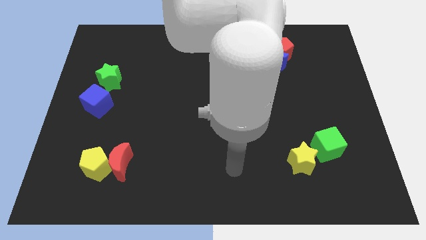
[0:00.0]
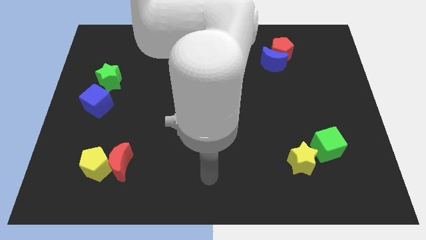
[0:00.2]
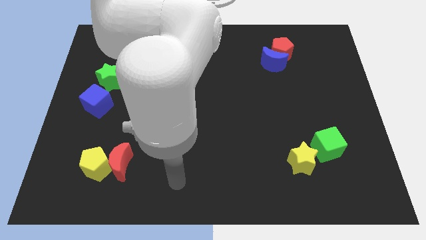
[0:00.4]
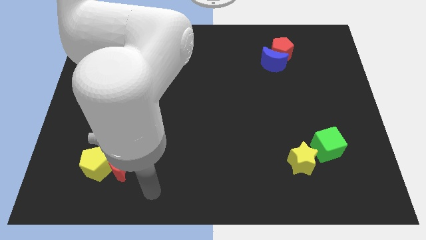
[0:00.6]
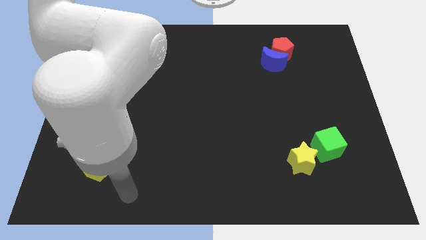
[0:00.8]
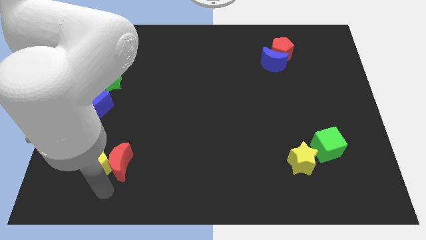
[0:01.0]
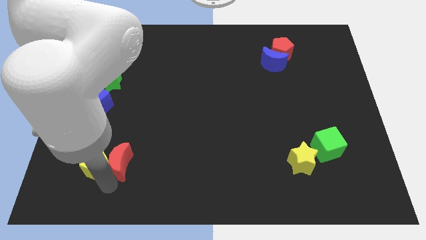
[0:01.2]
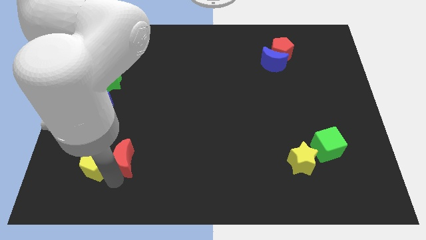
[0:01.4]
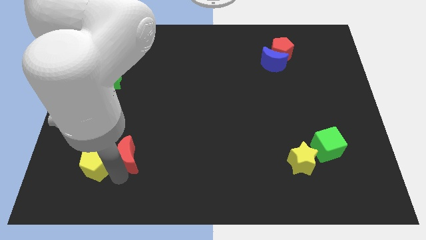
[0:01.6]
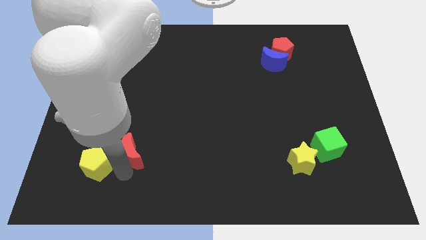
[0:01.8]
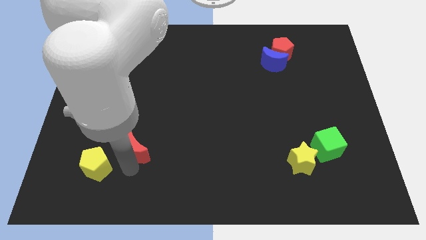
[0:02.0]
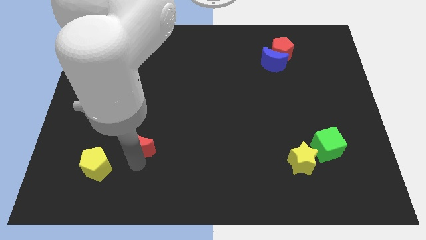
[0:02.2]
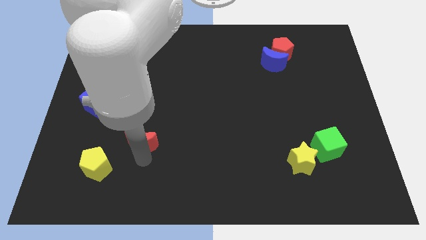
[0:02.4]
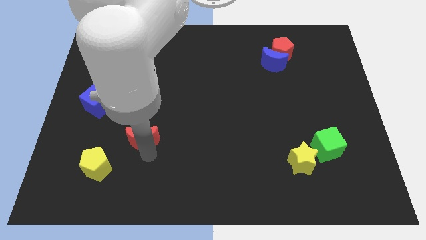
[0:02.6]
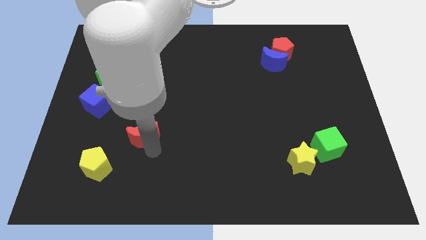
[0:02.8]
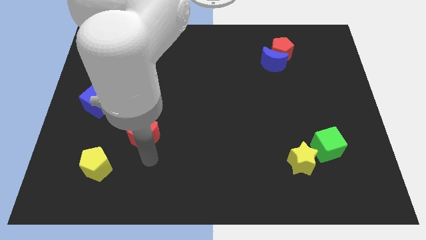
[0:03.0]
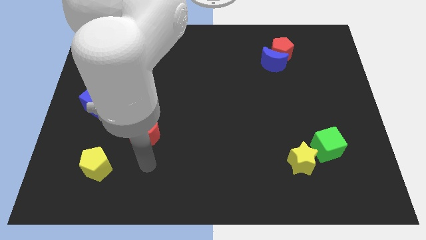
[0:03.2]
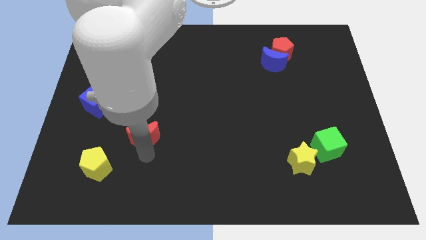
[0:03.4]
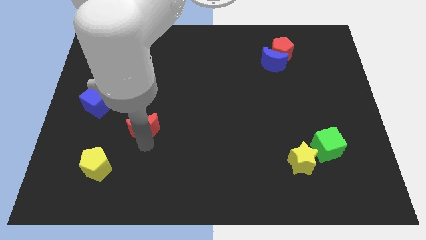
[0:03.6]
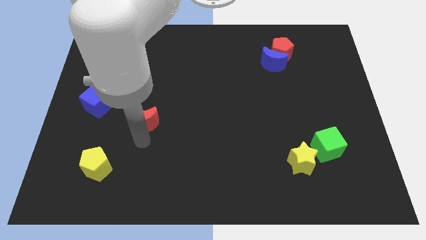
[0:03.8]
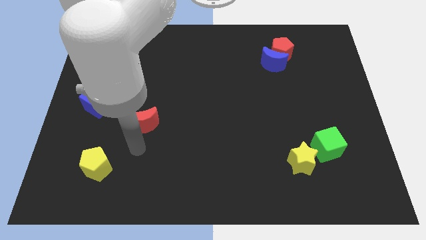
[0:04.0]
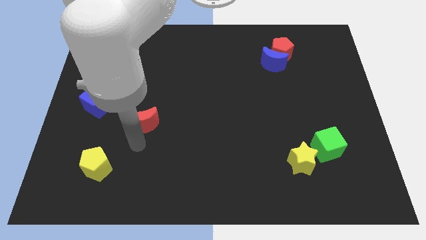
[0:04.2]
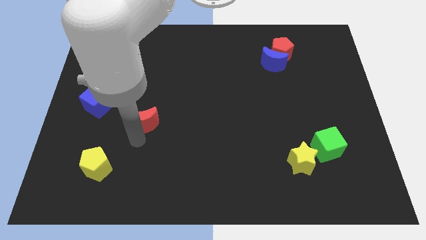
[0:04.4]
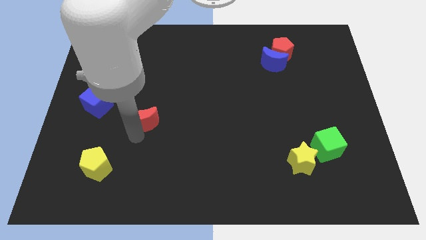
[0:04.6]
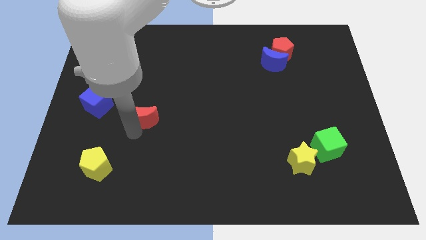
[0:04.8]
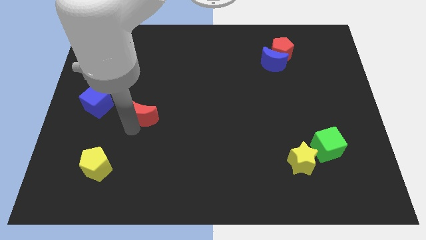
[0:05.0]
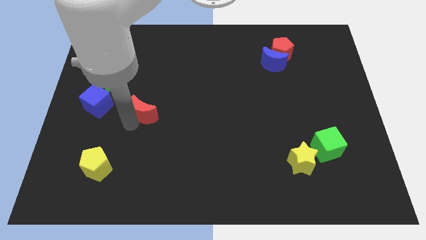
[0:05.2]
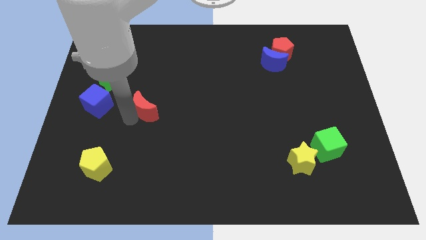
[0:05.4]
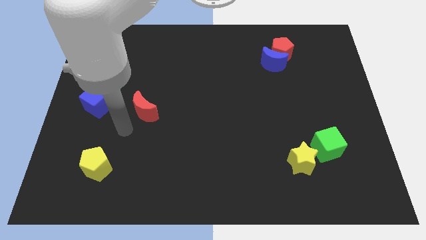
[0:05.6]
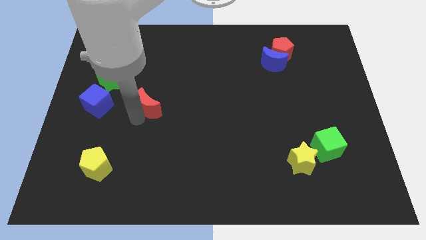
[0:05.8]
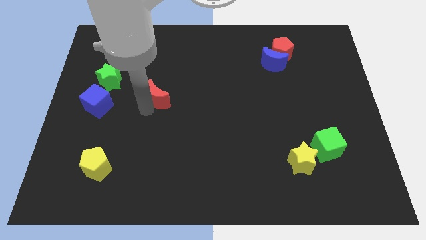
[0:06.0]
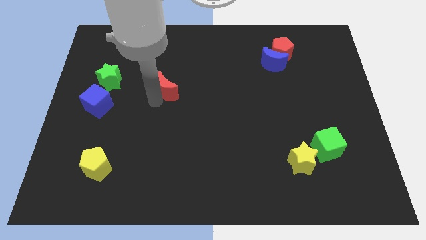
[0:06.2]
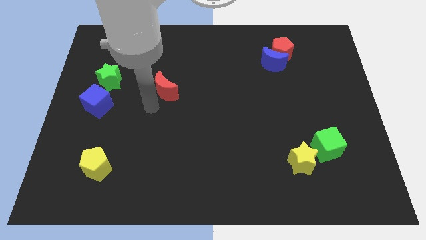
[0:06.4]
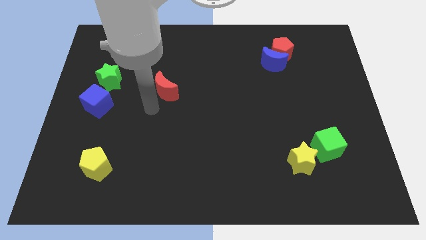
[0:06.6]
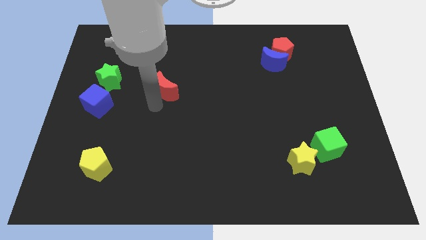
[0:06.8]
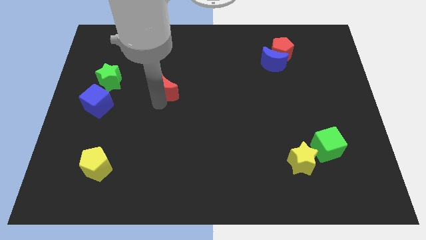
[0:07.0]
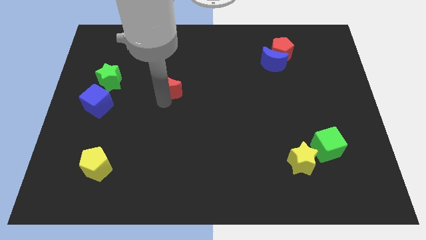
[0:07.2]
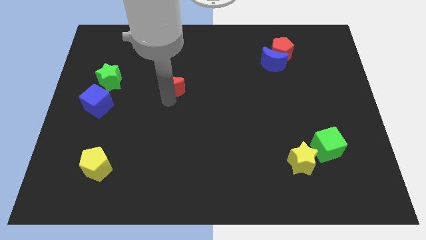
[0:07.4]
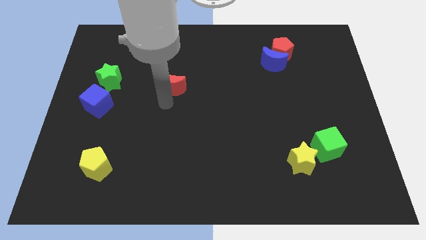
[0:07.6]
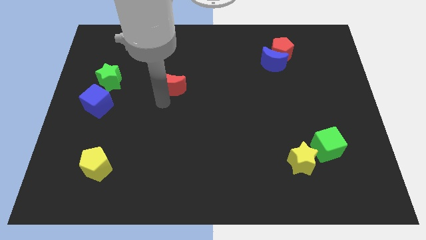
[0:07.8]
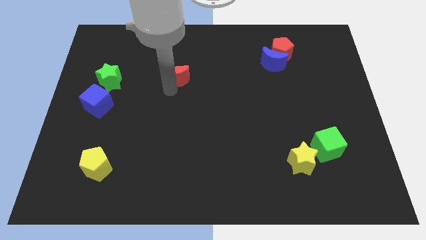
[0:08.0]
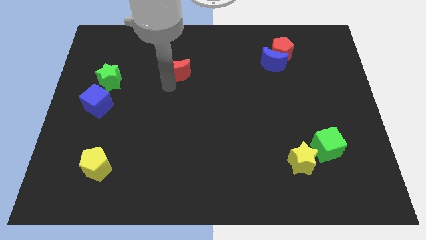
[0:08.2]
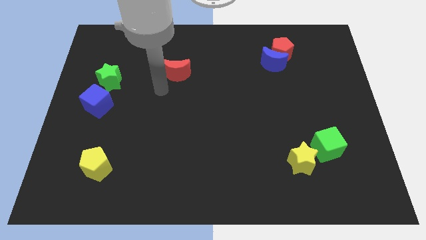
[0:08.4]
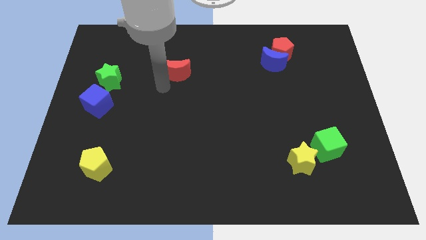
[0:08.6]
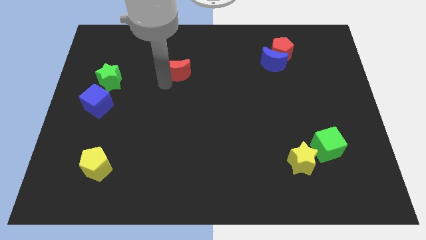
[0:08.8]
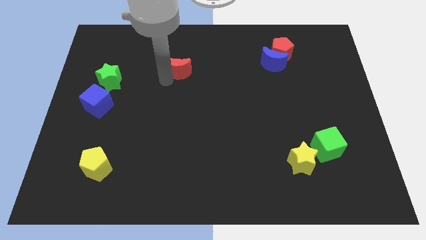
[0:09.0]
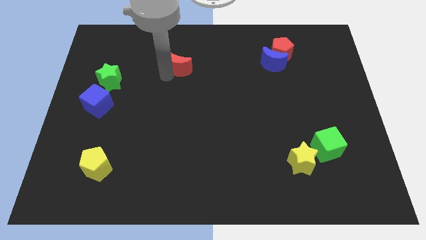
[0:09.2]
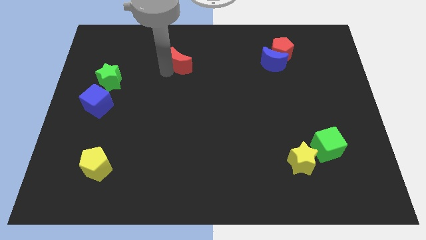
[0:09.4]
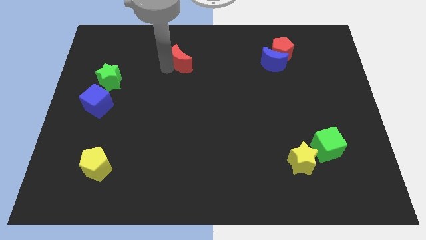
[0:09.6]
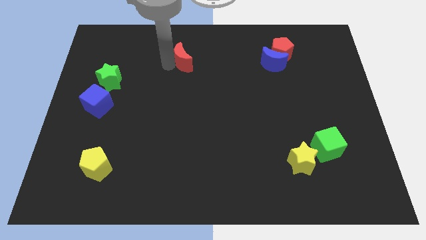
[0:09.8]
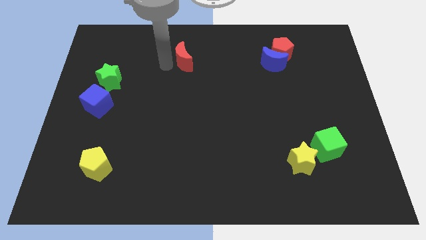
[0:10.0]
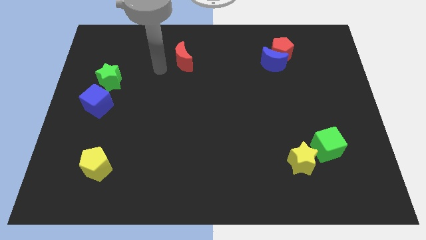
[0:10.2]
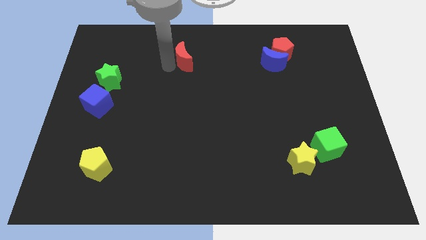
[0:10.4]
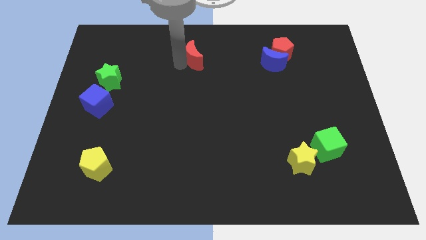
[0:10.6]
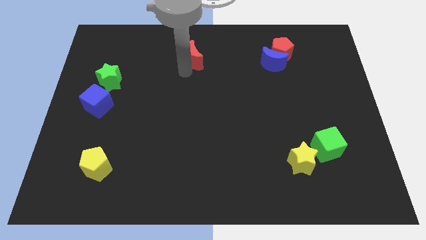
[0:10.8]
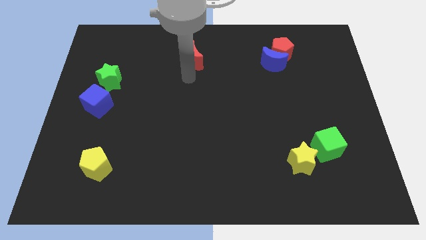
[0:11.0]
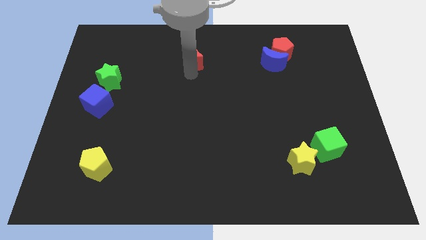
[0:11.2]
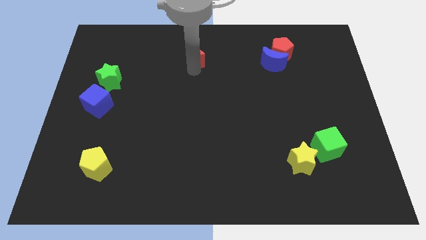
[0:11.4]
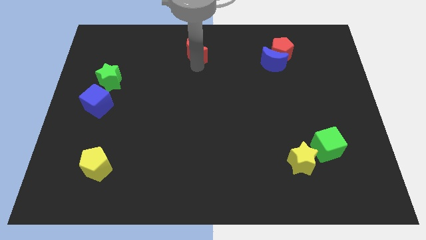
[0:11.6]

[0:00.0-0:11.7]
slide the red moon to the top

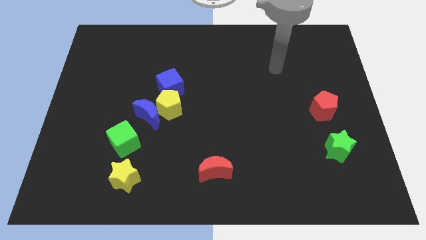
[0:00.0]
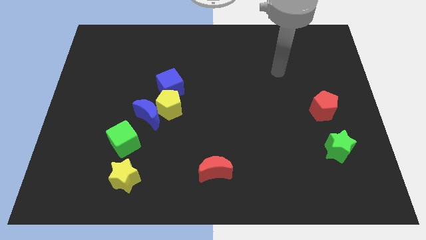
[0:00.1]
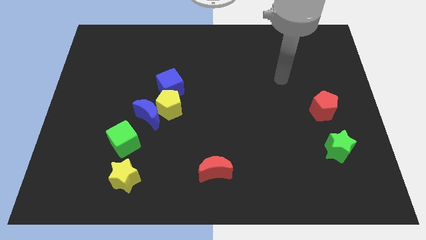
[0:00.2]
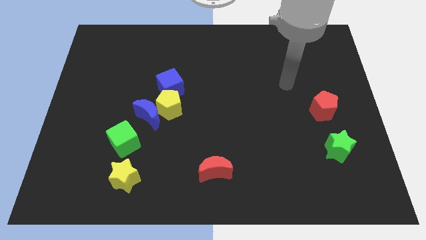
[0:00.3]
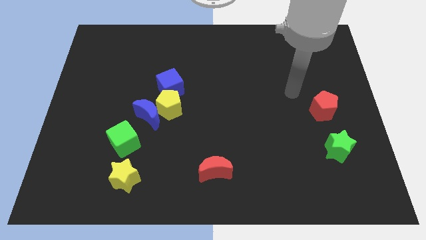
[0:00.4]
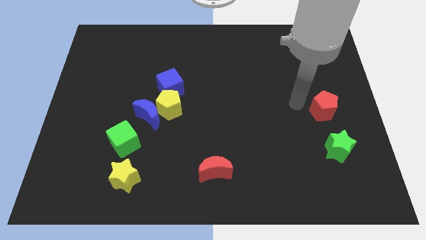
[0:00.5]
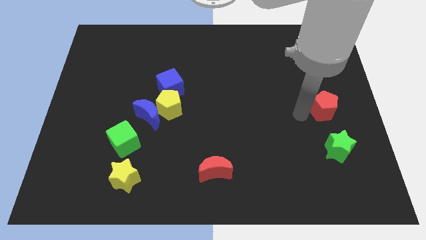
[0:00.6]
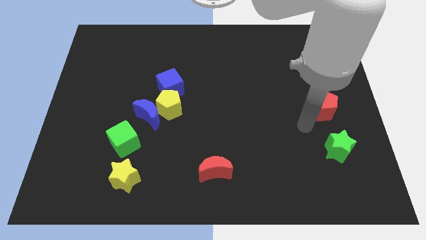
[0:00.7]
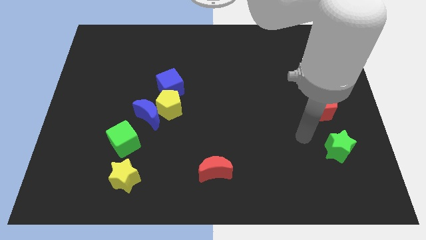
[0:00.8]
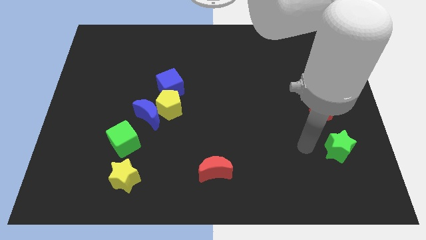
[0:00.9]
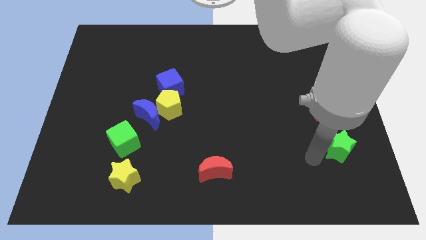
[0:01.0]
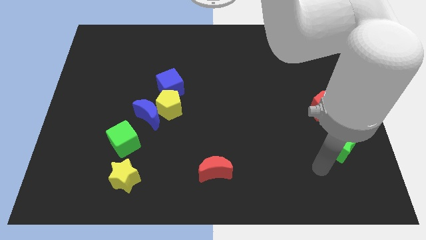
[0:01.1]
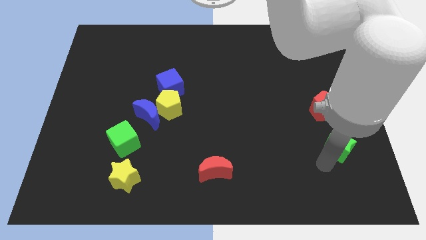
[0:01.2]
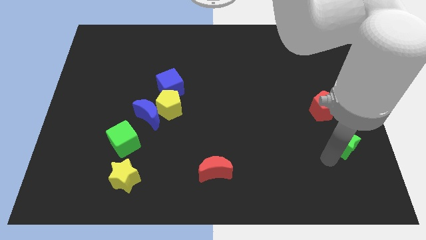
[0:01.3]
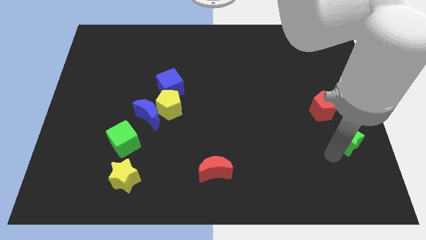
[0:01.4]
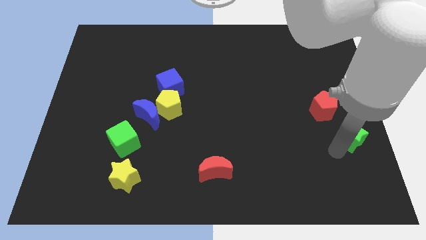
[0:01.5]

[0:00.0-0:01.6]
push the green star to the center right
